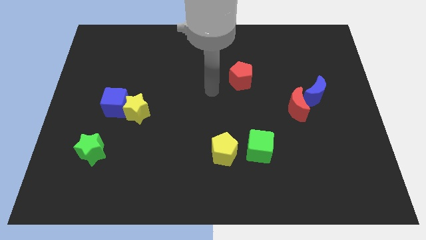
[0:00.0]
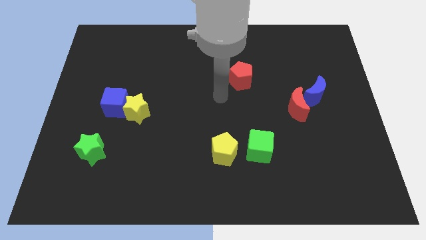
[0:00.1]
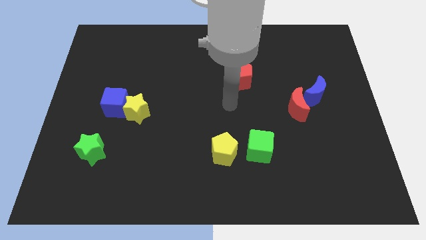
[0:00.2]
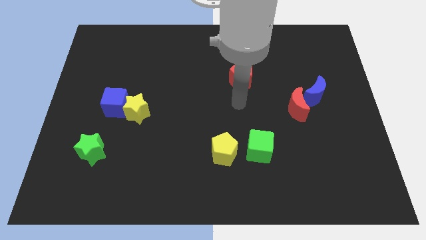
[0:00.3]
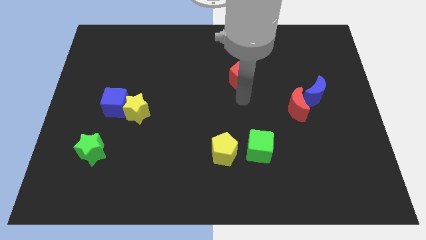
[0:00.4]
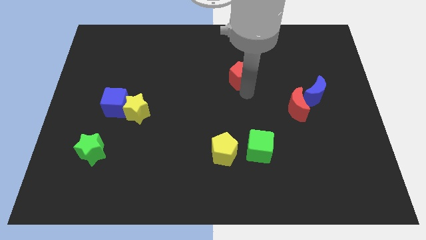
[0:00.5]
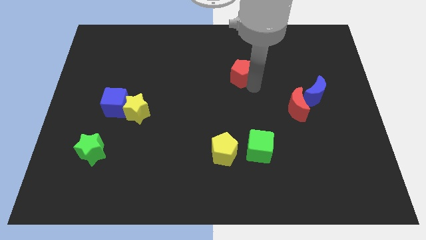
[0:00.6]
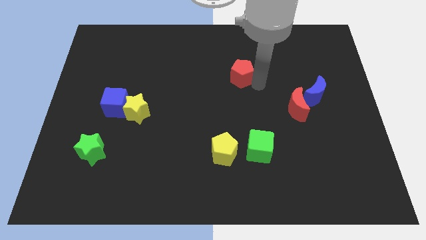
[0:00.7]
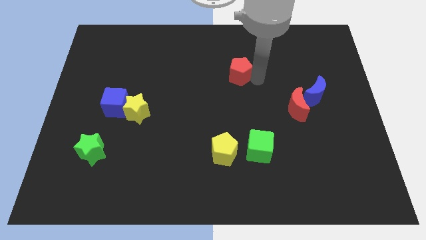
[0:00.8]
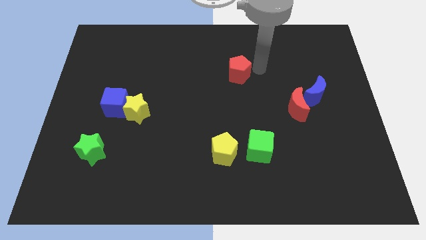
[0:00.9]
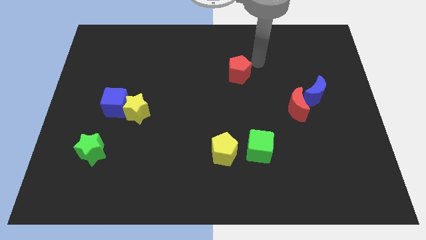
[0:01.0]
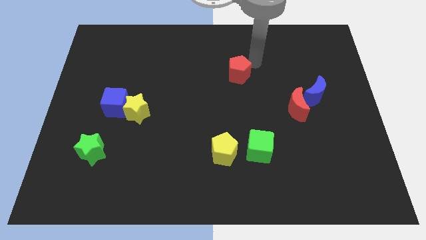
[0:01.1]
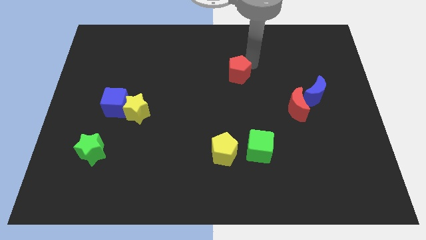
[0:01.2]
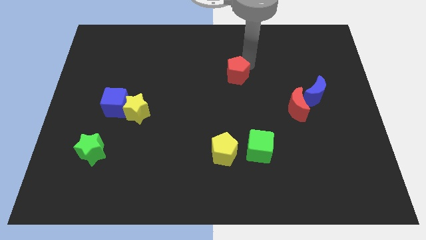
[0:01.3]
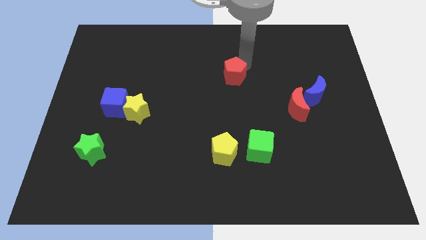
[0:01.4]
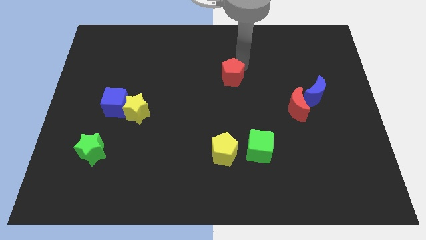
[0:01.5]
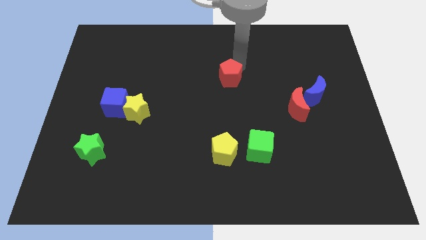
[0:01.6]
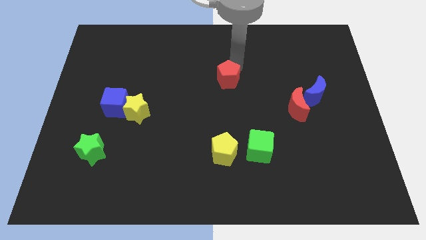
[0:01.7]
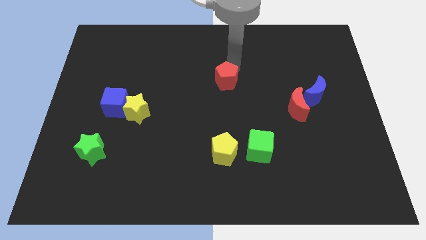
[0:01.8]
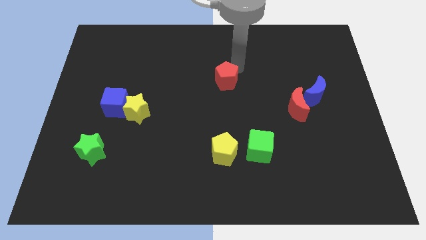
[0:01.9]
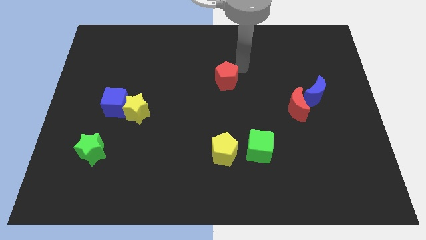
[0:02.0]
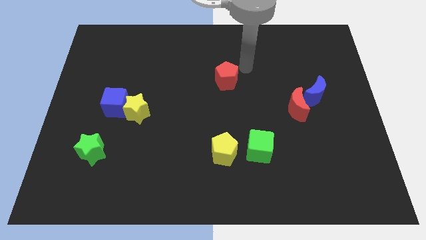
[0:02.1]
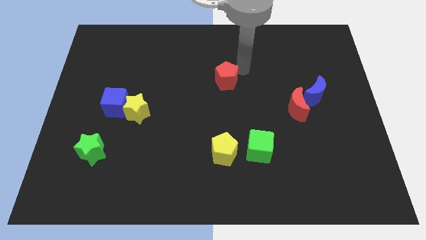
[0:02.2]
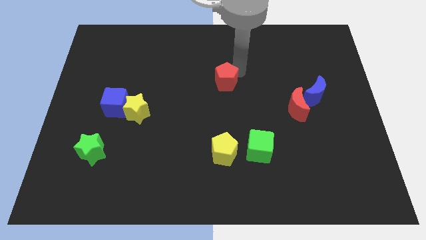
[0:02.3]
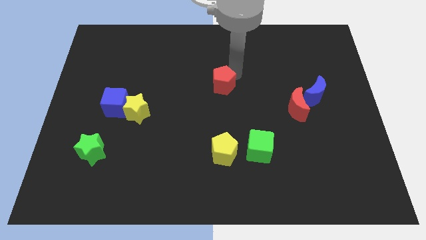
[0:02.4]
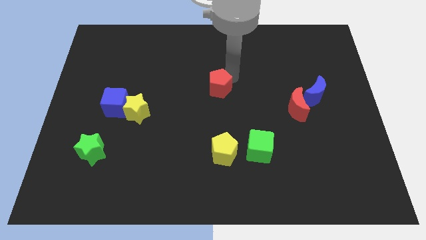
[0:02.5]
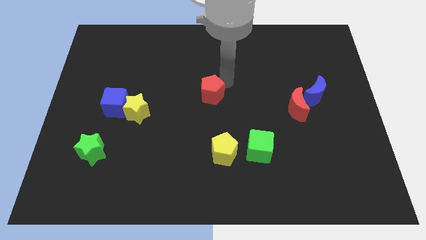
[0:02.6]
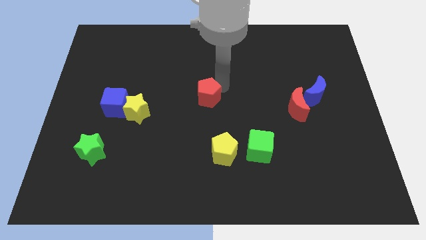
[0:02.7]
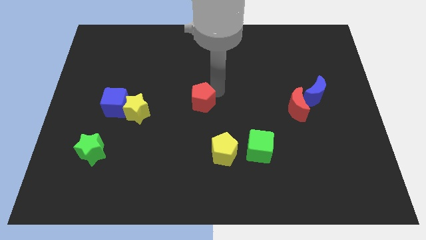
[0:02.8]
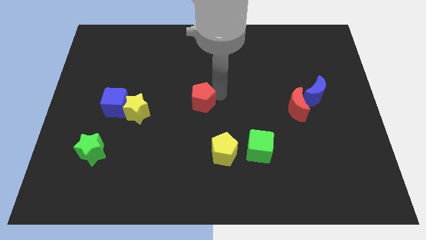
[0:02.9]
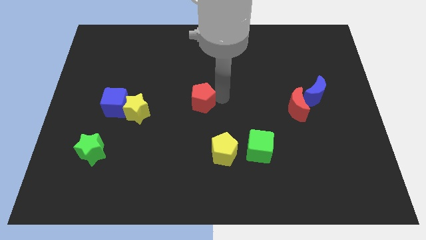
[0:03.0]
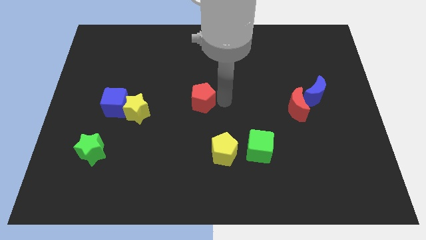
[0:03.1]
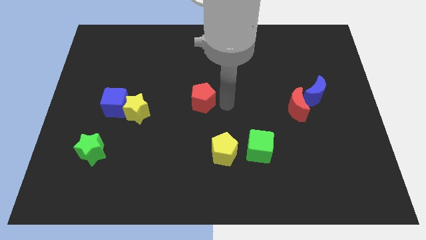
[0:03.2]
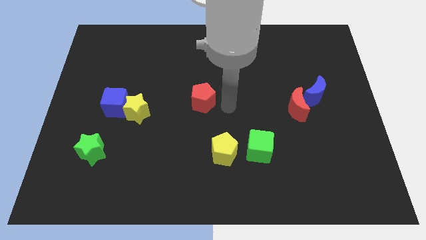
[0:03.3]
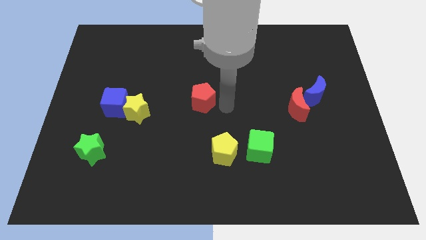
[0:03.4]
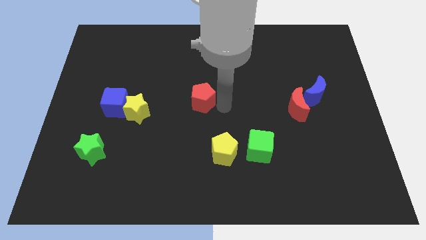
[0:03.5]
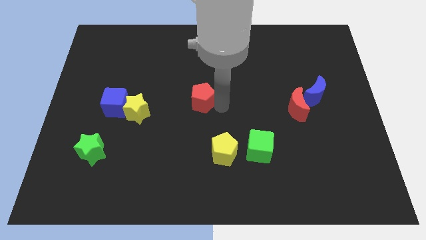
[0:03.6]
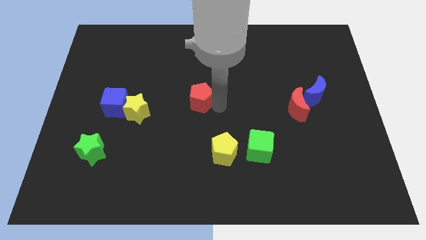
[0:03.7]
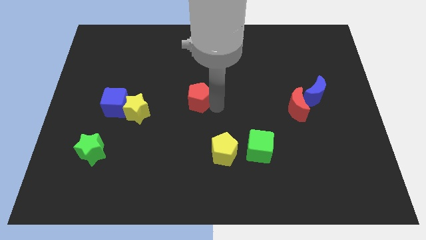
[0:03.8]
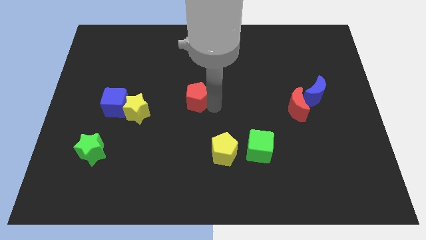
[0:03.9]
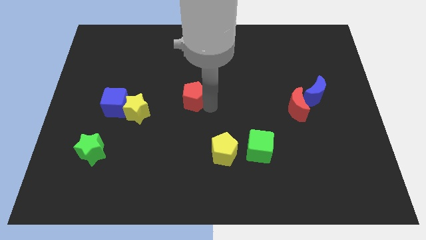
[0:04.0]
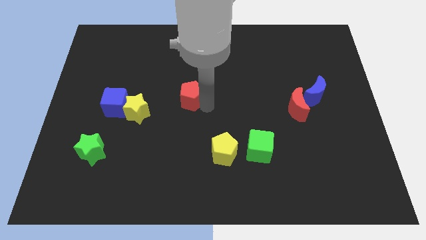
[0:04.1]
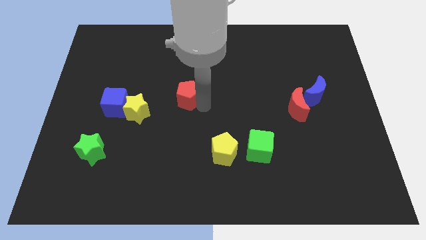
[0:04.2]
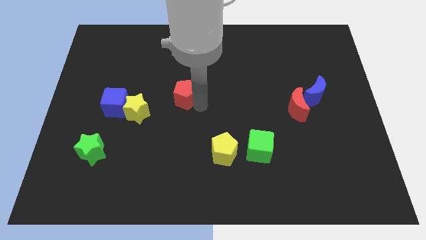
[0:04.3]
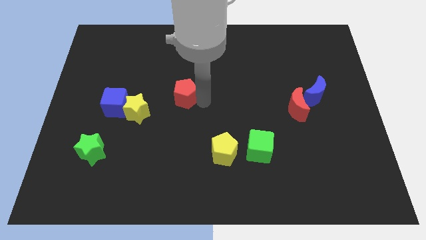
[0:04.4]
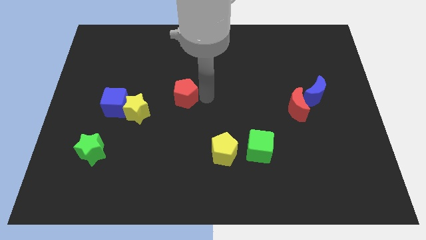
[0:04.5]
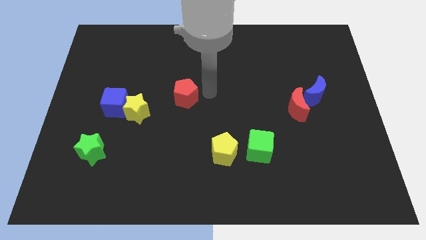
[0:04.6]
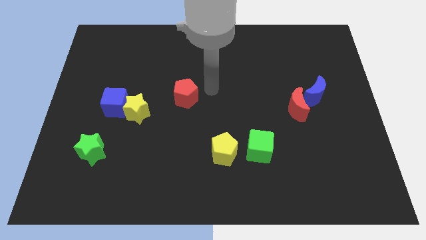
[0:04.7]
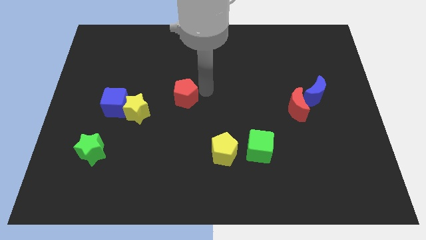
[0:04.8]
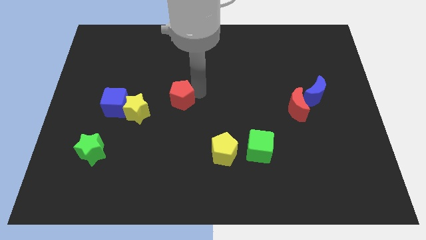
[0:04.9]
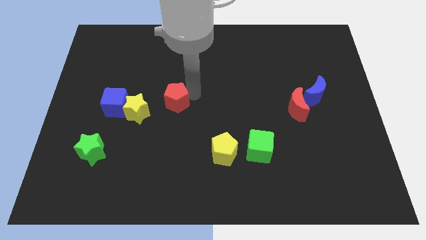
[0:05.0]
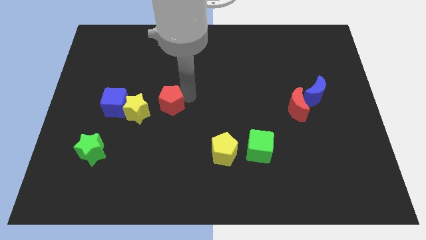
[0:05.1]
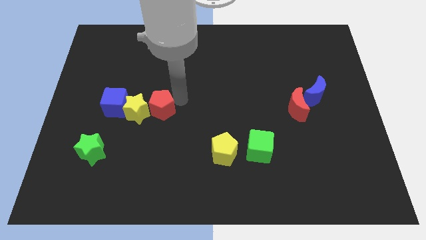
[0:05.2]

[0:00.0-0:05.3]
push the red pentagon next to the yellow star

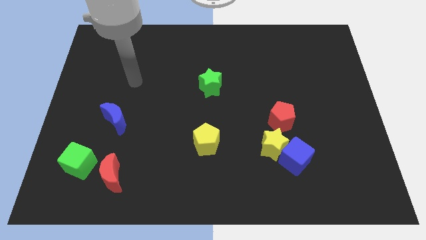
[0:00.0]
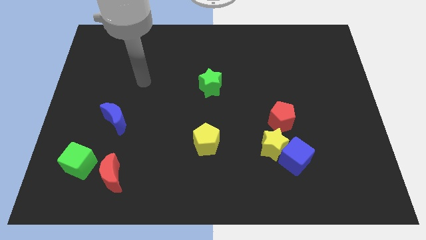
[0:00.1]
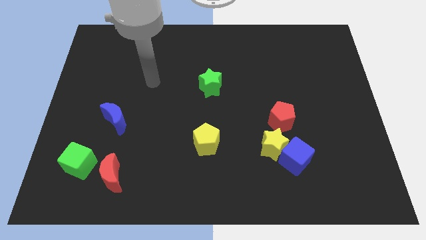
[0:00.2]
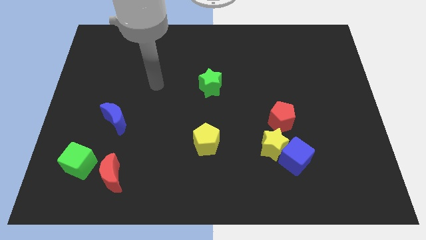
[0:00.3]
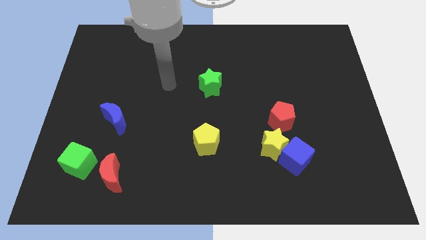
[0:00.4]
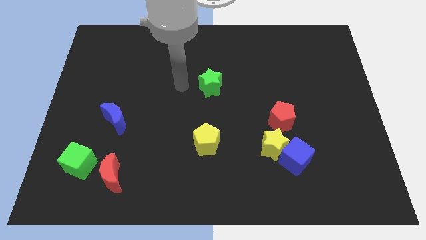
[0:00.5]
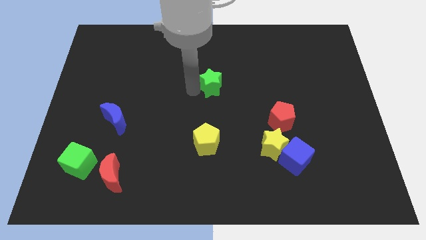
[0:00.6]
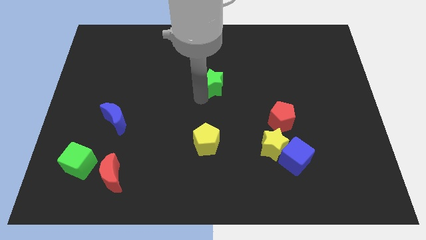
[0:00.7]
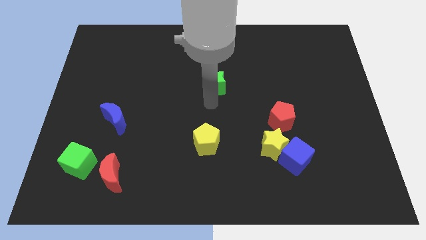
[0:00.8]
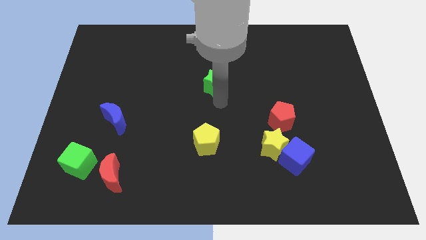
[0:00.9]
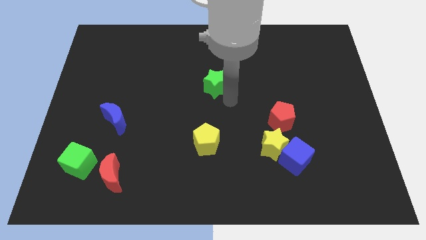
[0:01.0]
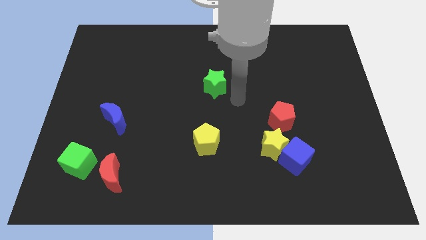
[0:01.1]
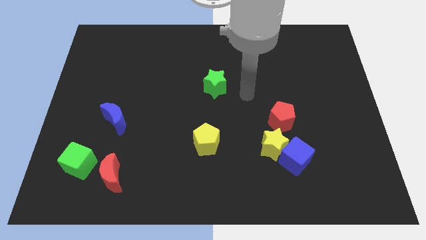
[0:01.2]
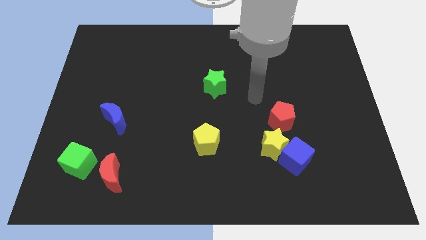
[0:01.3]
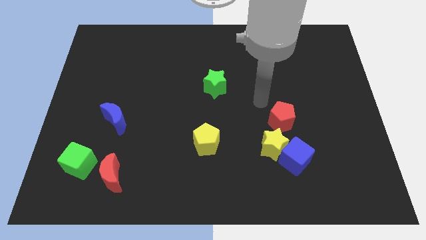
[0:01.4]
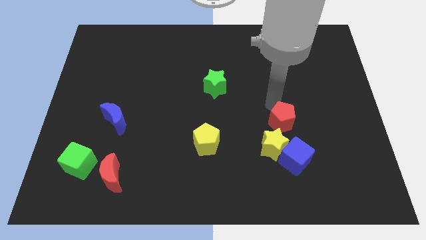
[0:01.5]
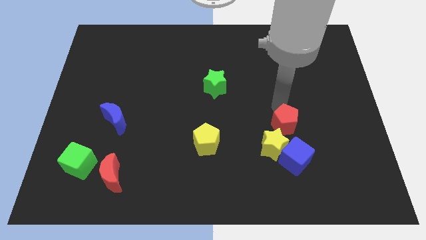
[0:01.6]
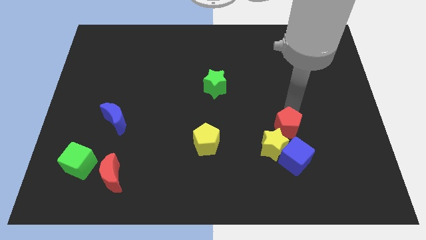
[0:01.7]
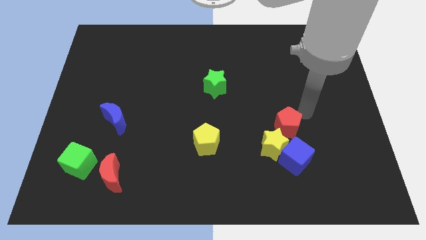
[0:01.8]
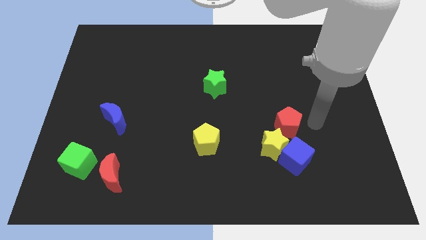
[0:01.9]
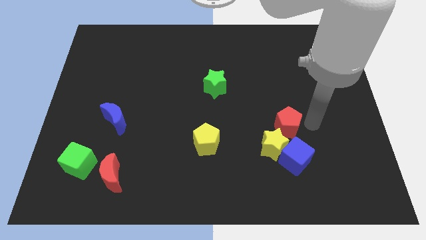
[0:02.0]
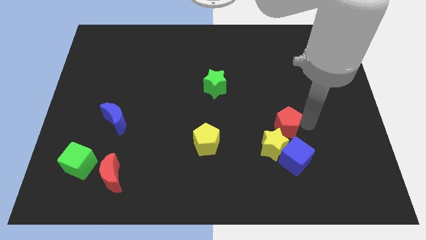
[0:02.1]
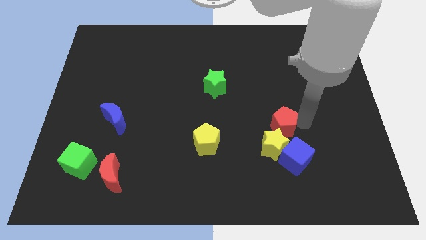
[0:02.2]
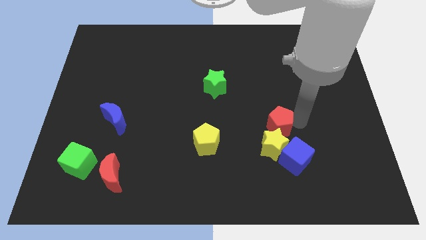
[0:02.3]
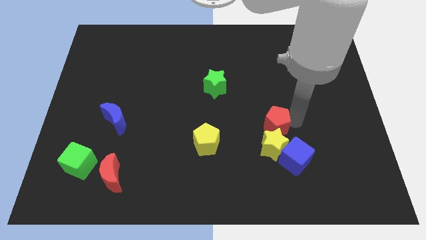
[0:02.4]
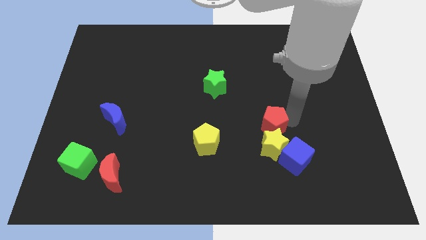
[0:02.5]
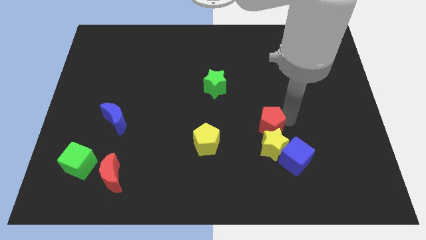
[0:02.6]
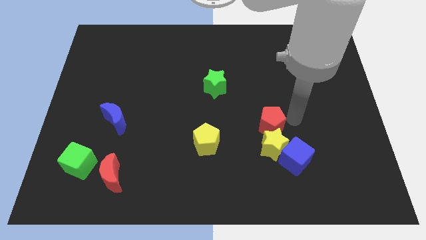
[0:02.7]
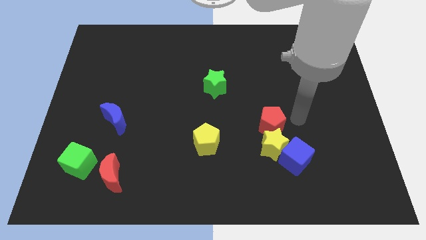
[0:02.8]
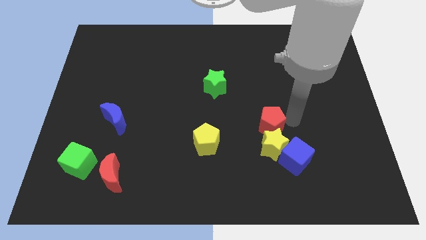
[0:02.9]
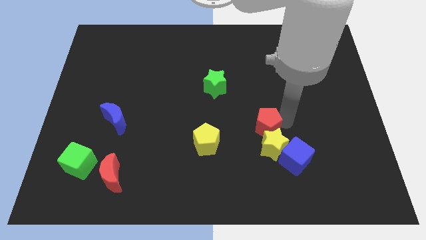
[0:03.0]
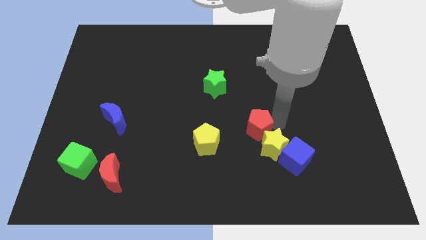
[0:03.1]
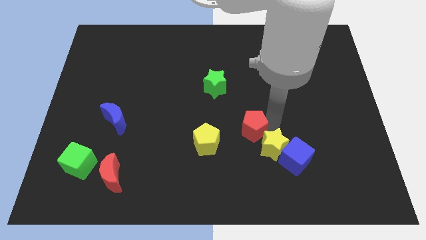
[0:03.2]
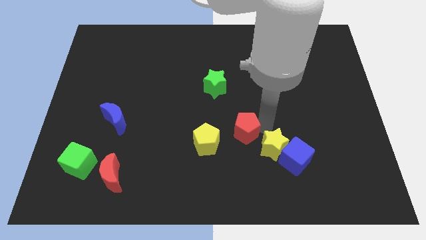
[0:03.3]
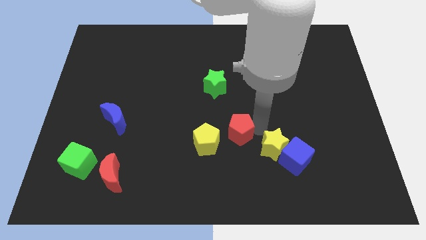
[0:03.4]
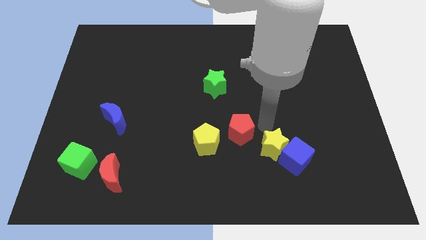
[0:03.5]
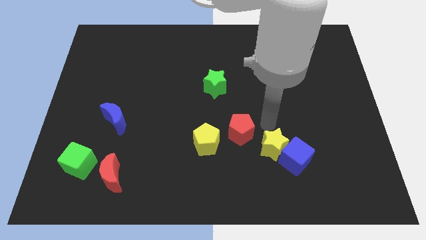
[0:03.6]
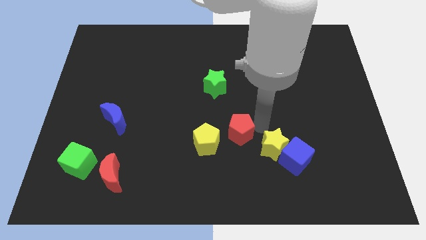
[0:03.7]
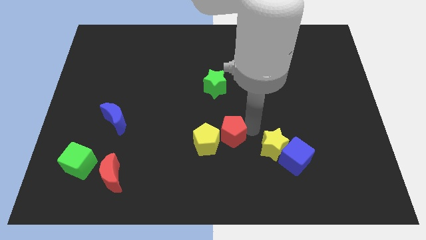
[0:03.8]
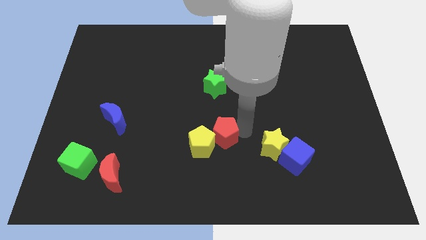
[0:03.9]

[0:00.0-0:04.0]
put the red pentagon close to the yellow pentagon
